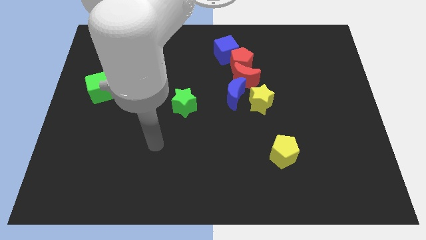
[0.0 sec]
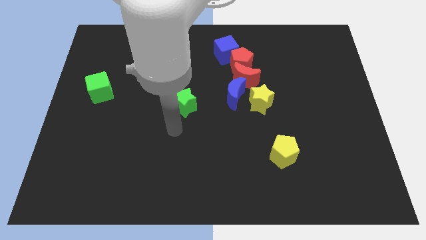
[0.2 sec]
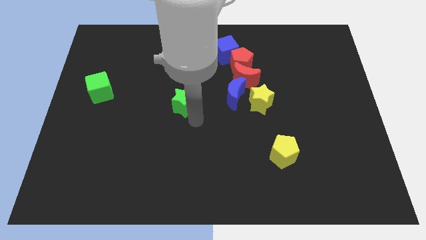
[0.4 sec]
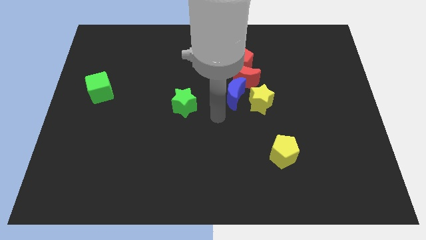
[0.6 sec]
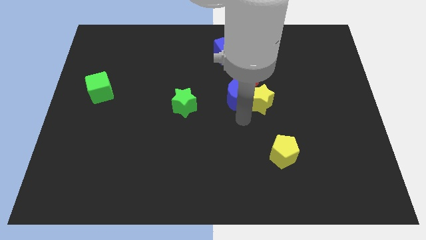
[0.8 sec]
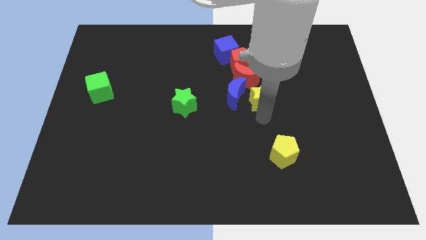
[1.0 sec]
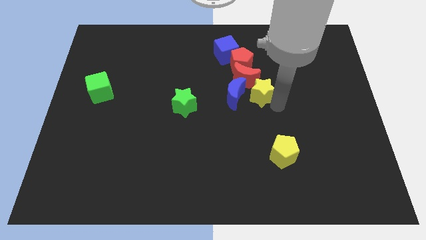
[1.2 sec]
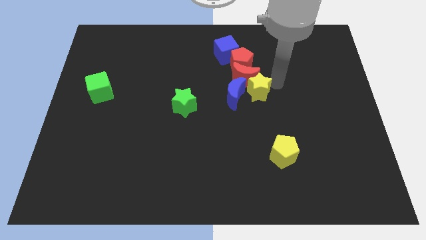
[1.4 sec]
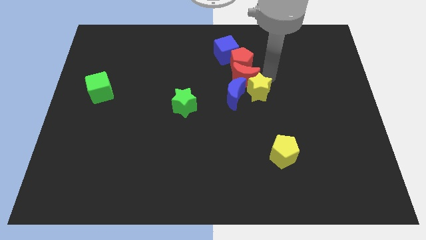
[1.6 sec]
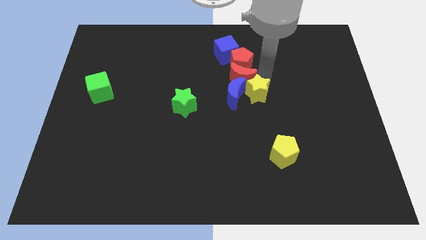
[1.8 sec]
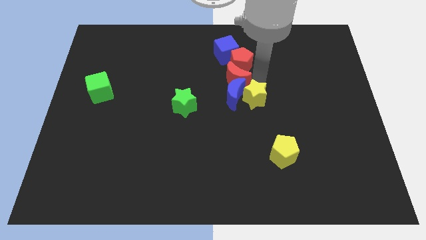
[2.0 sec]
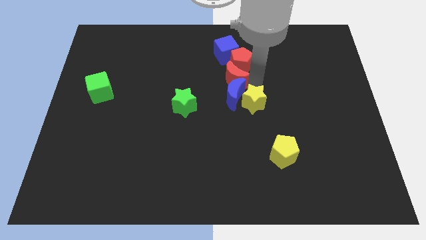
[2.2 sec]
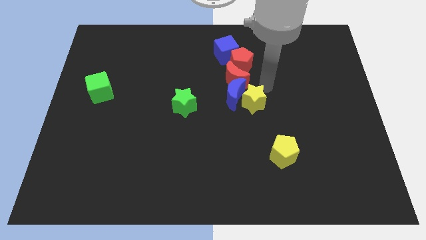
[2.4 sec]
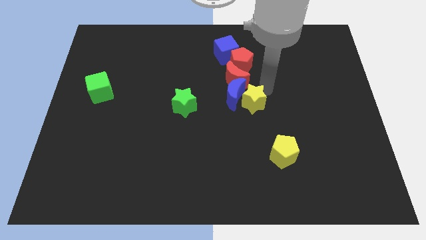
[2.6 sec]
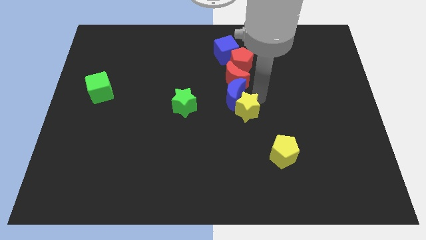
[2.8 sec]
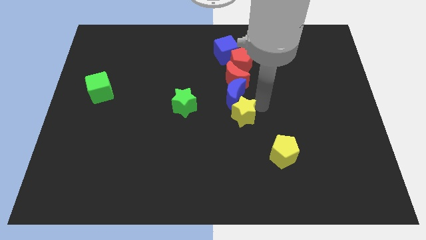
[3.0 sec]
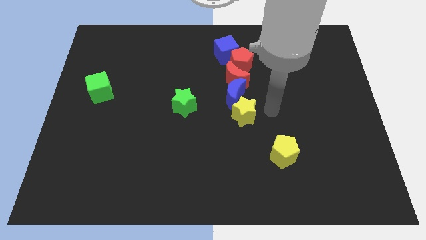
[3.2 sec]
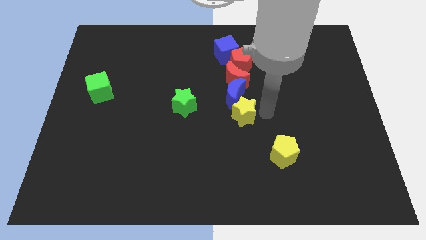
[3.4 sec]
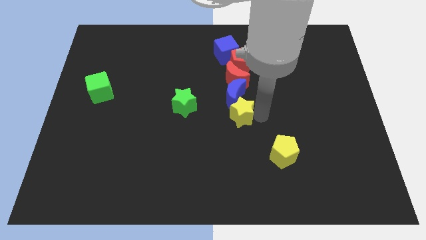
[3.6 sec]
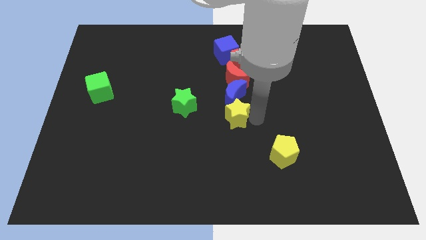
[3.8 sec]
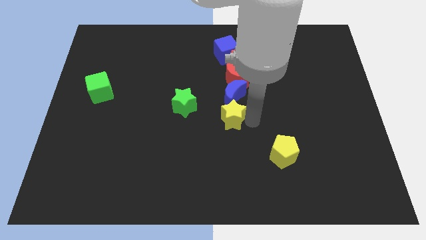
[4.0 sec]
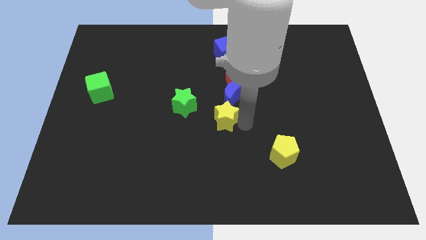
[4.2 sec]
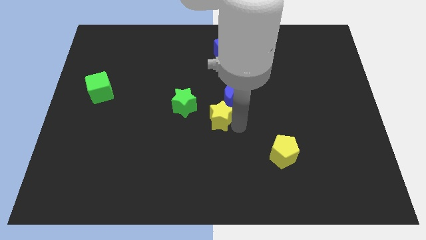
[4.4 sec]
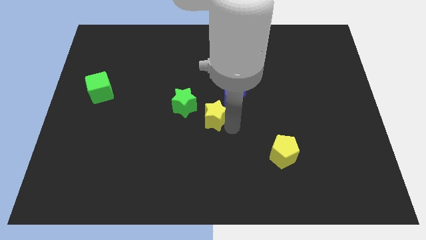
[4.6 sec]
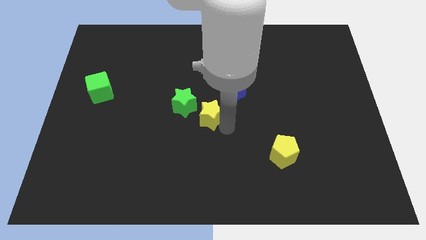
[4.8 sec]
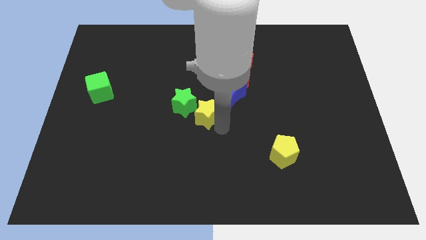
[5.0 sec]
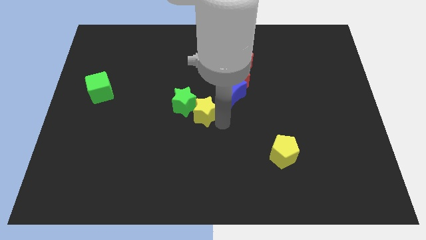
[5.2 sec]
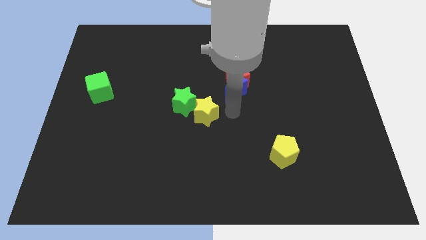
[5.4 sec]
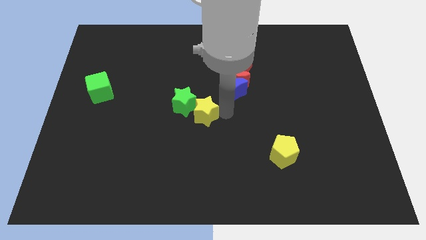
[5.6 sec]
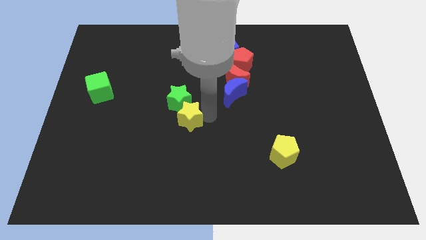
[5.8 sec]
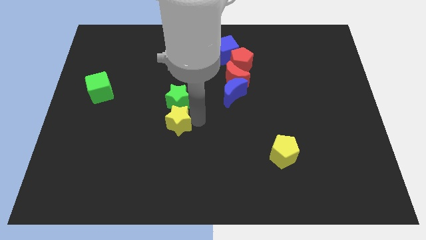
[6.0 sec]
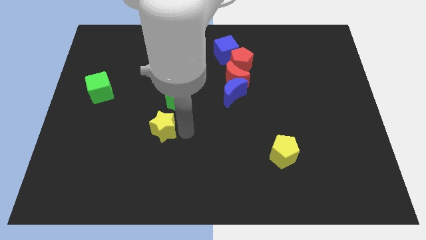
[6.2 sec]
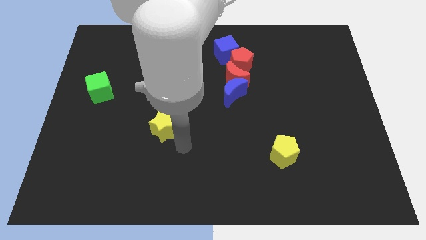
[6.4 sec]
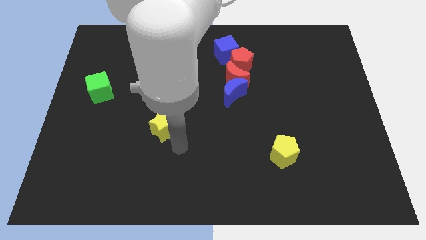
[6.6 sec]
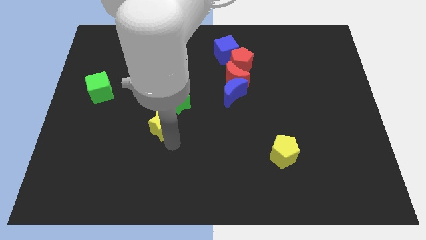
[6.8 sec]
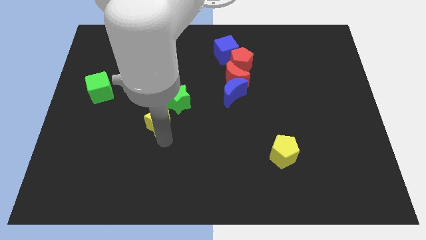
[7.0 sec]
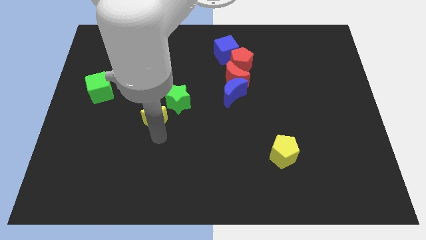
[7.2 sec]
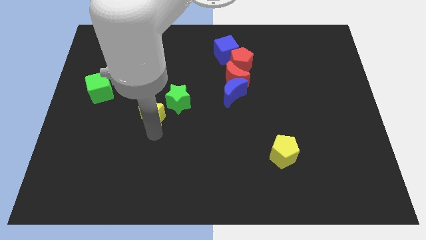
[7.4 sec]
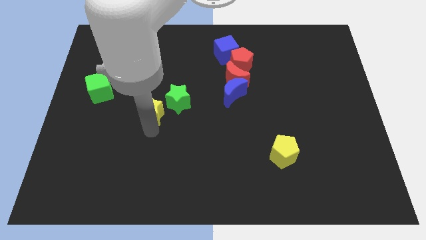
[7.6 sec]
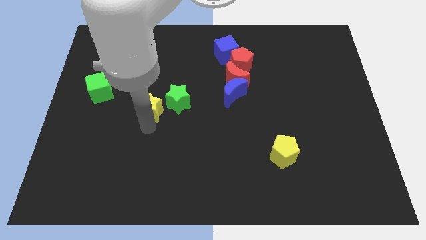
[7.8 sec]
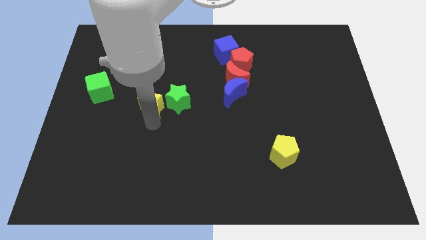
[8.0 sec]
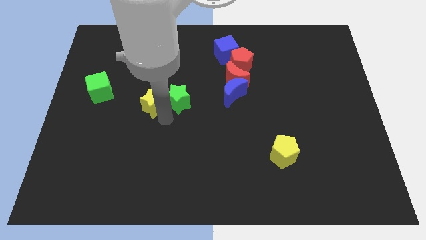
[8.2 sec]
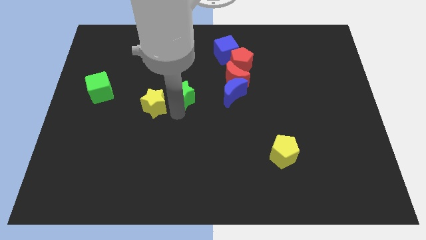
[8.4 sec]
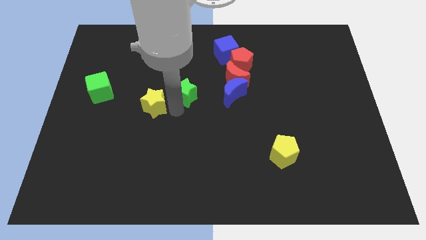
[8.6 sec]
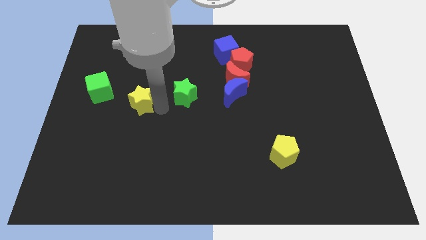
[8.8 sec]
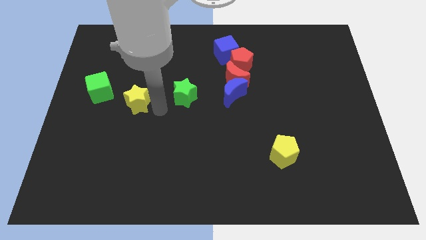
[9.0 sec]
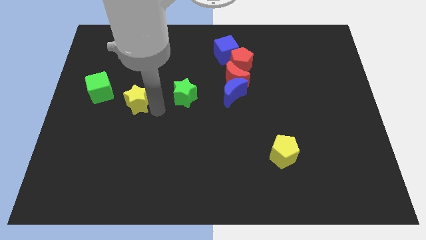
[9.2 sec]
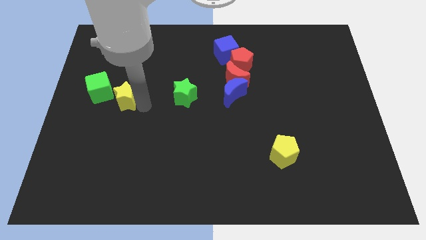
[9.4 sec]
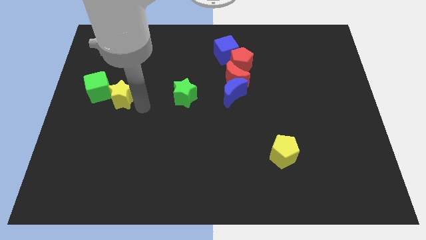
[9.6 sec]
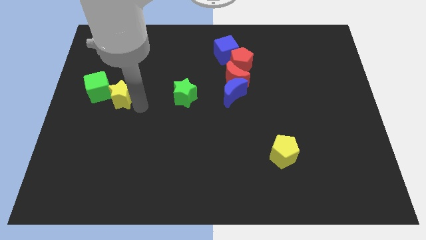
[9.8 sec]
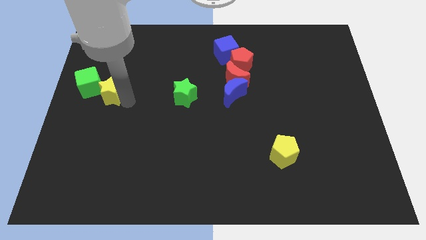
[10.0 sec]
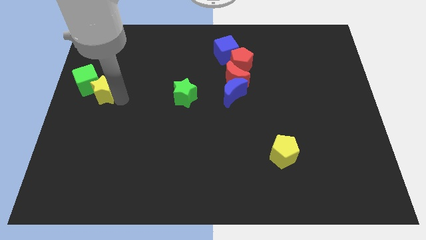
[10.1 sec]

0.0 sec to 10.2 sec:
move the yellow star towards the green cube

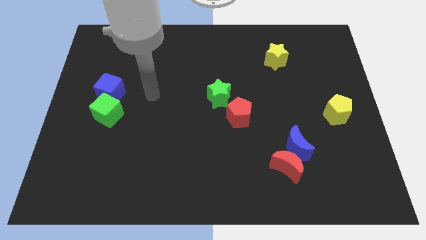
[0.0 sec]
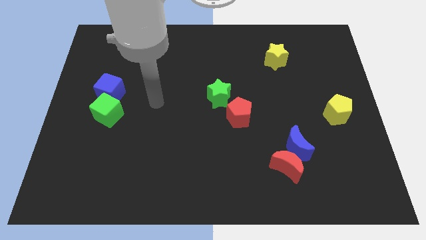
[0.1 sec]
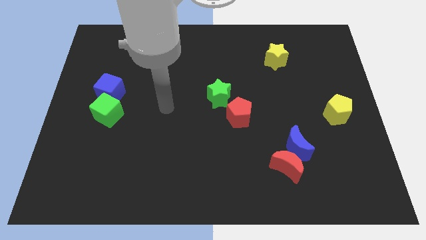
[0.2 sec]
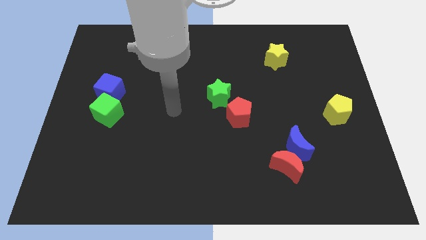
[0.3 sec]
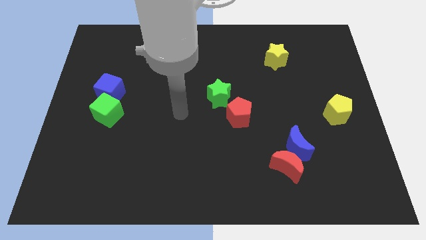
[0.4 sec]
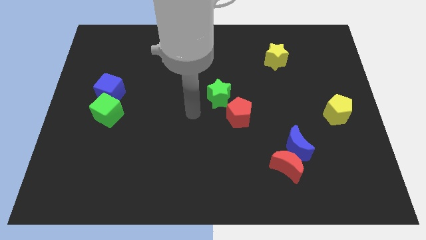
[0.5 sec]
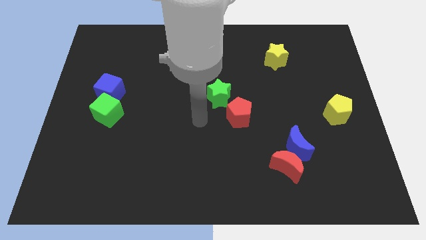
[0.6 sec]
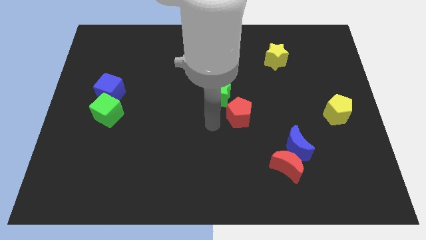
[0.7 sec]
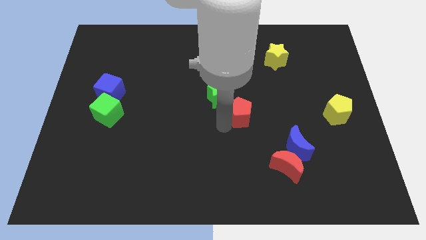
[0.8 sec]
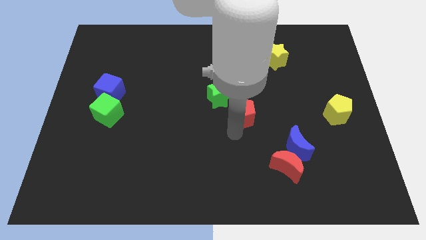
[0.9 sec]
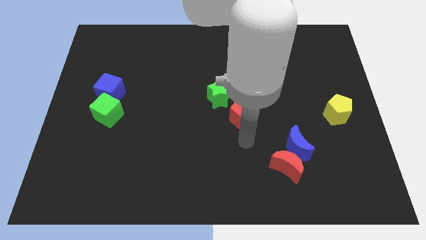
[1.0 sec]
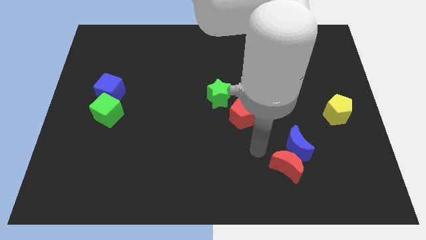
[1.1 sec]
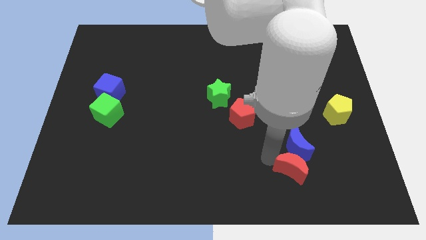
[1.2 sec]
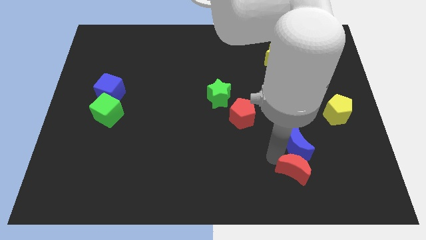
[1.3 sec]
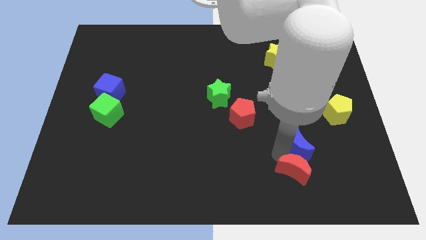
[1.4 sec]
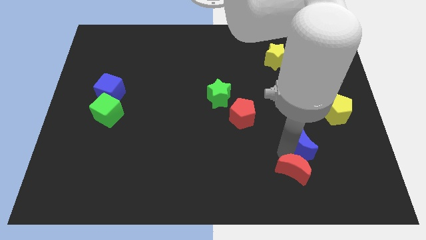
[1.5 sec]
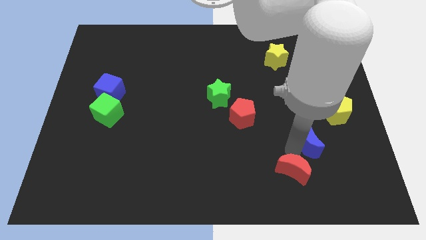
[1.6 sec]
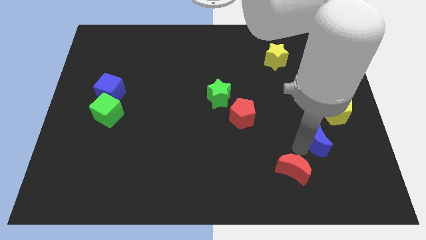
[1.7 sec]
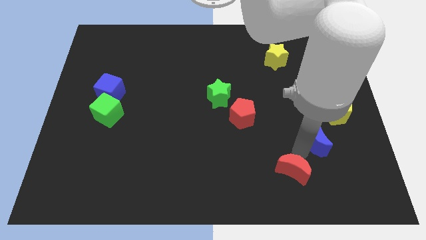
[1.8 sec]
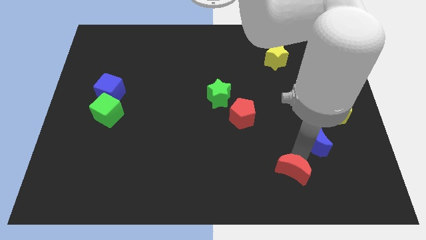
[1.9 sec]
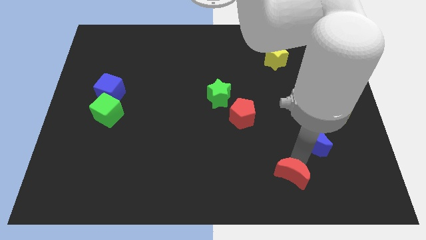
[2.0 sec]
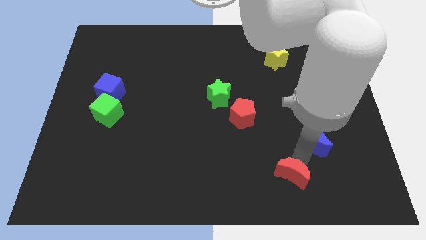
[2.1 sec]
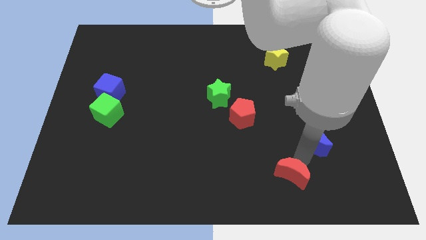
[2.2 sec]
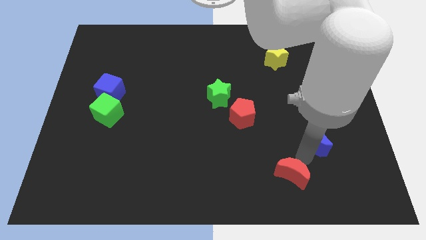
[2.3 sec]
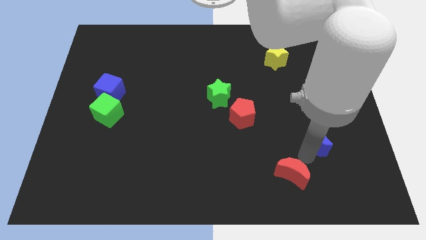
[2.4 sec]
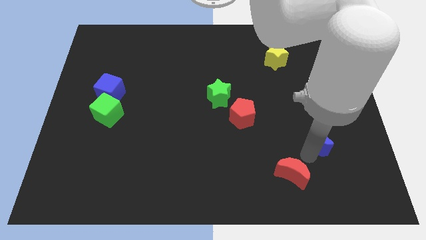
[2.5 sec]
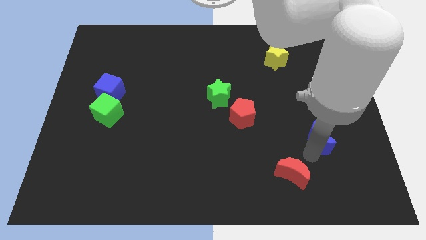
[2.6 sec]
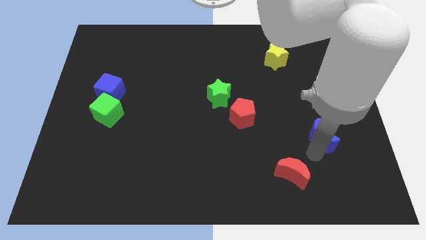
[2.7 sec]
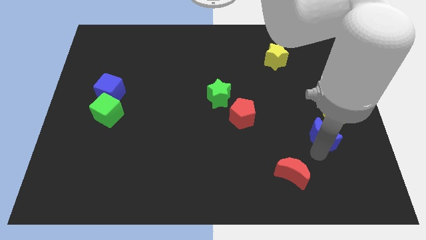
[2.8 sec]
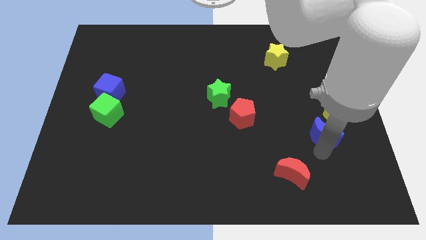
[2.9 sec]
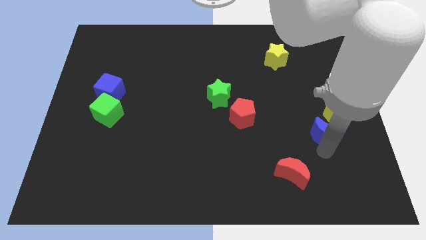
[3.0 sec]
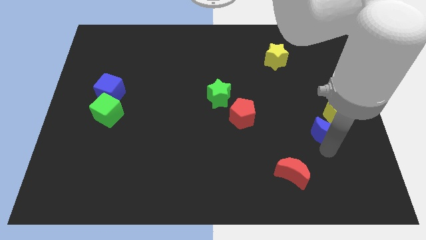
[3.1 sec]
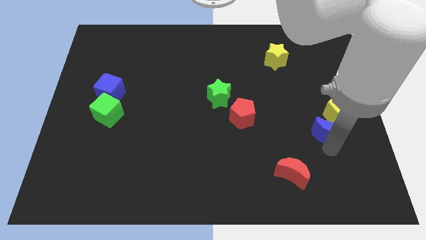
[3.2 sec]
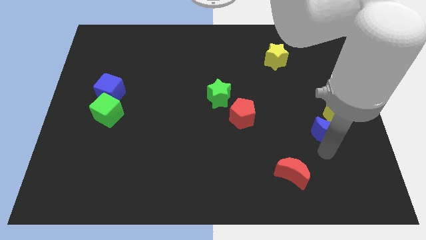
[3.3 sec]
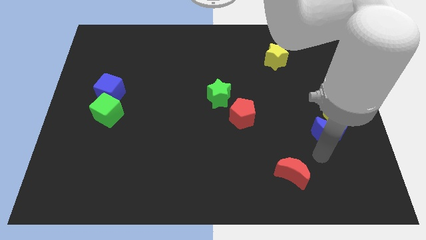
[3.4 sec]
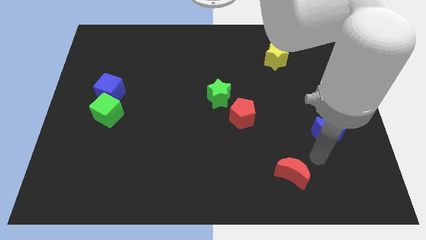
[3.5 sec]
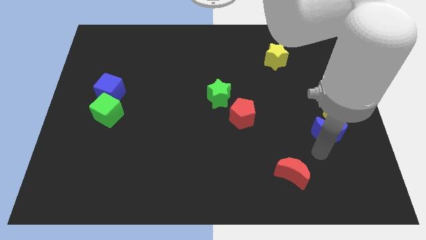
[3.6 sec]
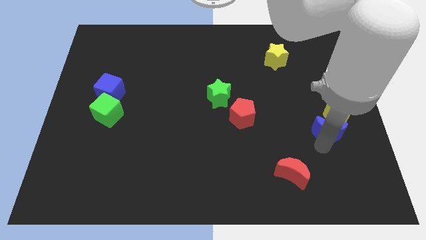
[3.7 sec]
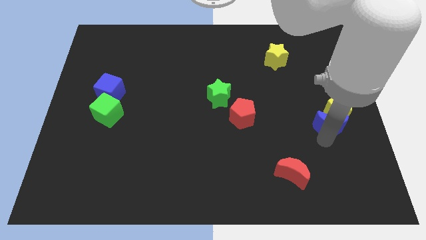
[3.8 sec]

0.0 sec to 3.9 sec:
push the blue moon towards the yellow pentagon
